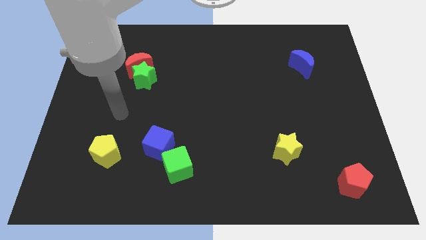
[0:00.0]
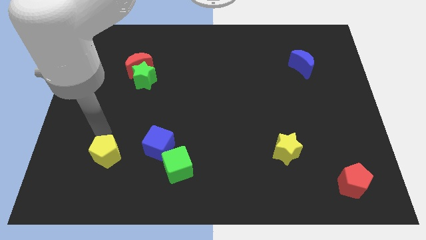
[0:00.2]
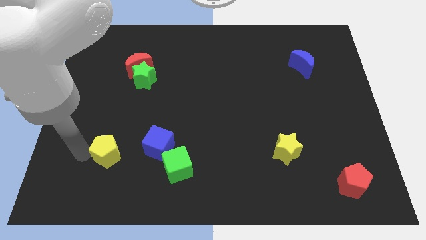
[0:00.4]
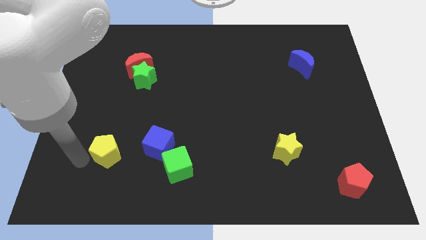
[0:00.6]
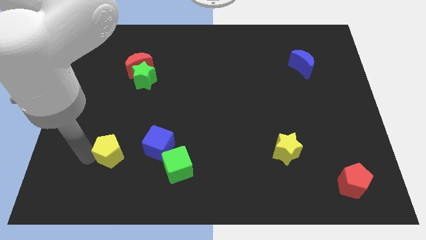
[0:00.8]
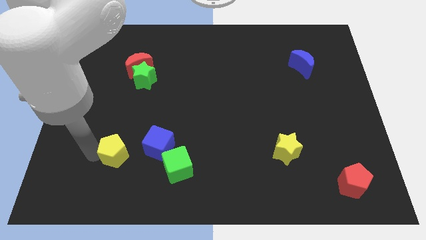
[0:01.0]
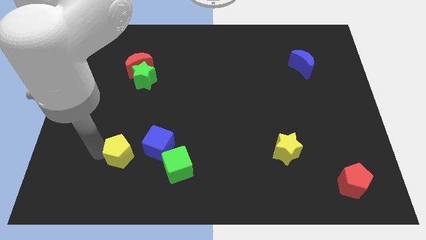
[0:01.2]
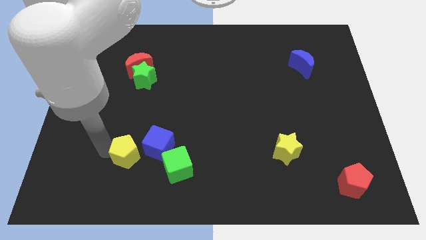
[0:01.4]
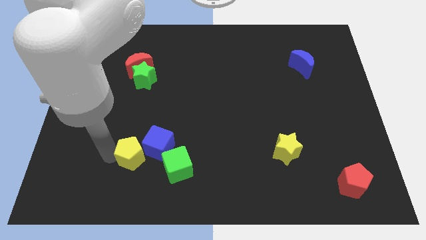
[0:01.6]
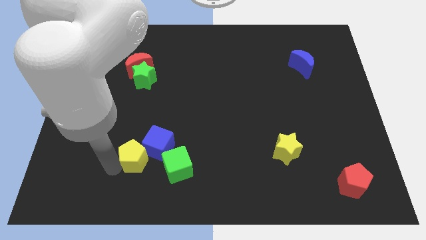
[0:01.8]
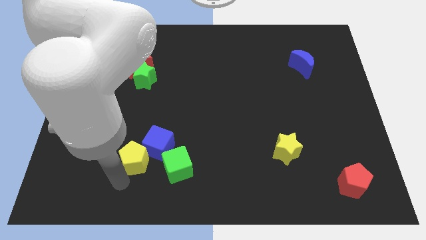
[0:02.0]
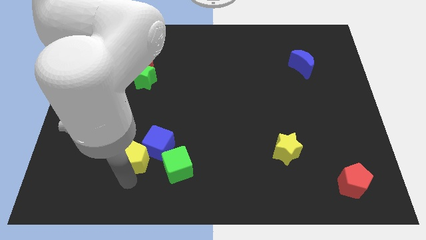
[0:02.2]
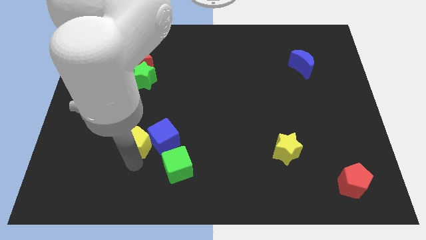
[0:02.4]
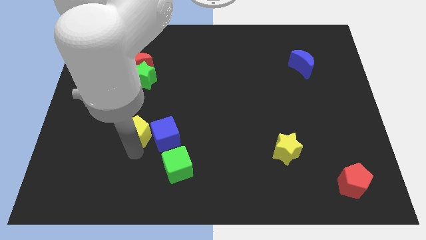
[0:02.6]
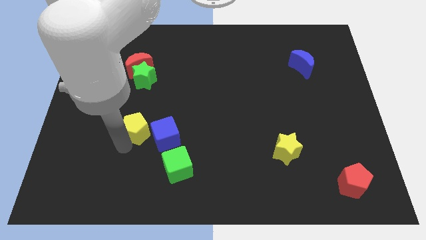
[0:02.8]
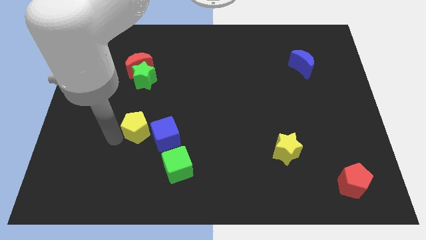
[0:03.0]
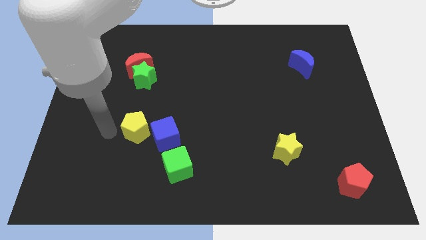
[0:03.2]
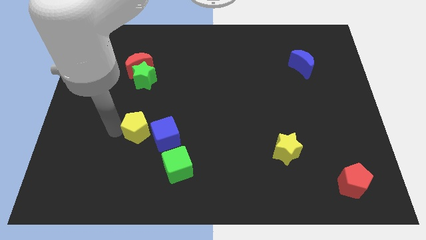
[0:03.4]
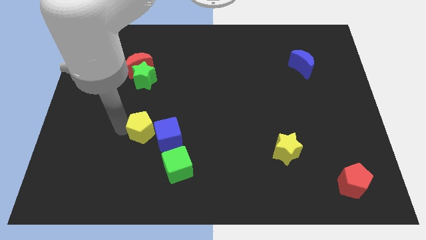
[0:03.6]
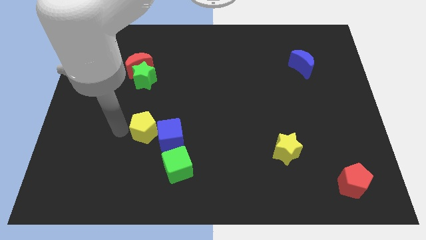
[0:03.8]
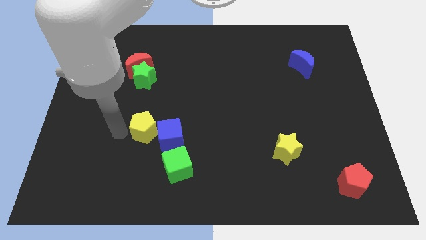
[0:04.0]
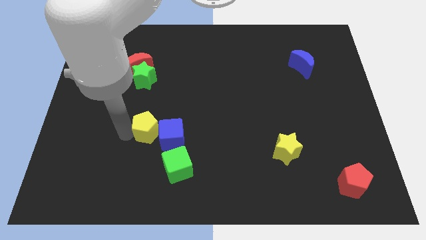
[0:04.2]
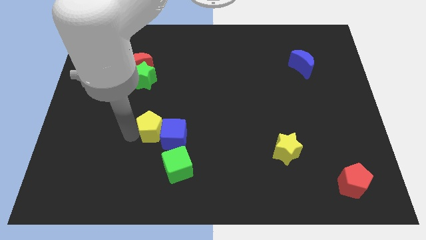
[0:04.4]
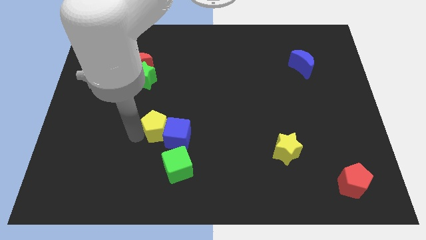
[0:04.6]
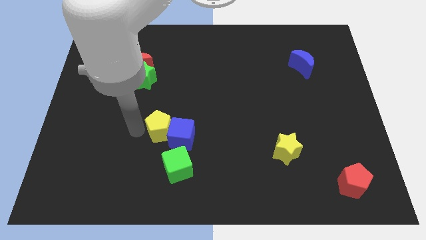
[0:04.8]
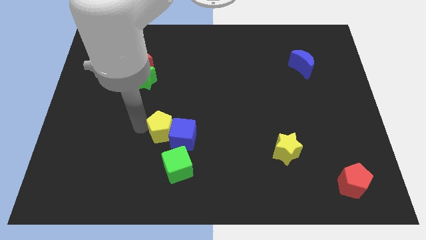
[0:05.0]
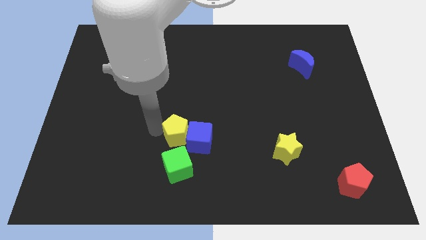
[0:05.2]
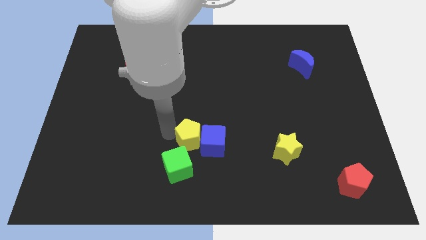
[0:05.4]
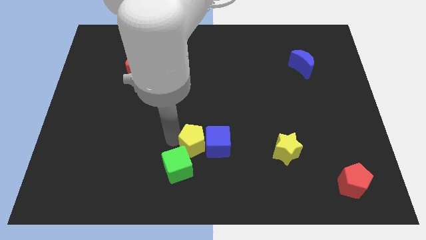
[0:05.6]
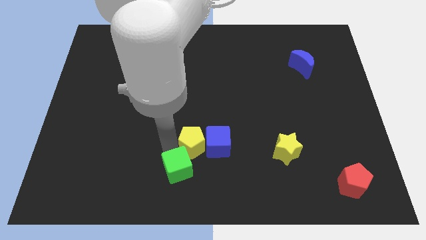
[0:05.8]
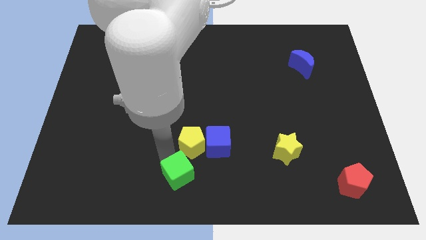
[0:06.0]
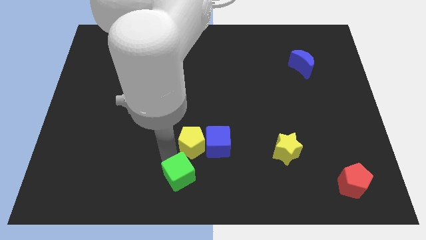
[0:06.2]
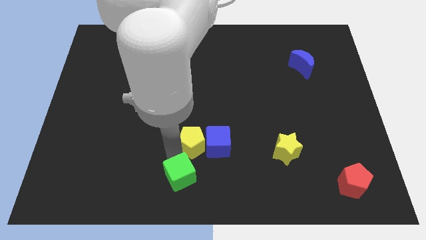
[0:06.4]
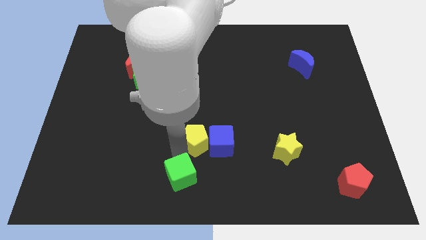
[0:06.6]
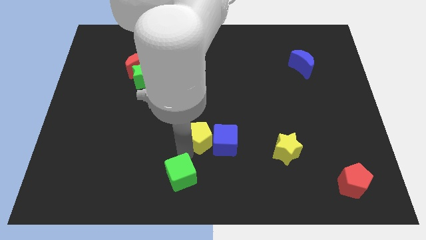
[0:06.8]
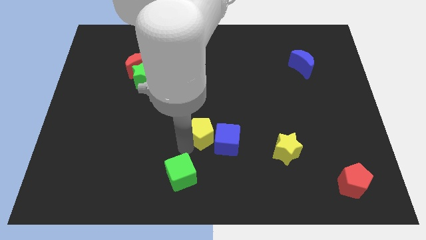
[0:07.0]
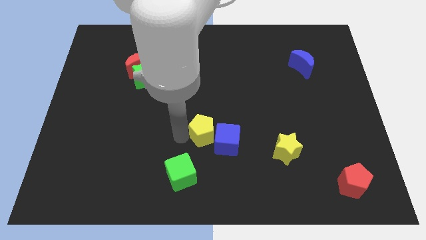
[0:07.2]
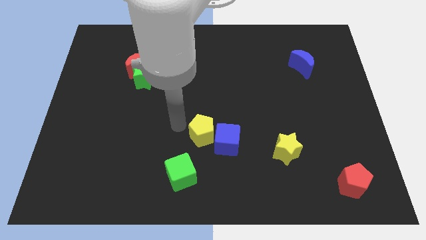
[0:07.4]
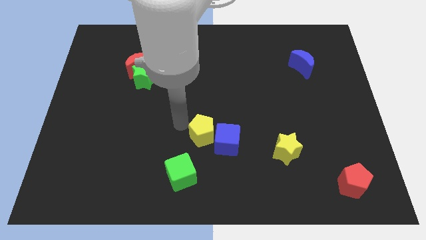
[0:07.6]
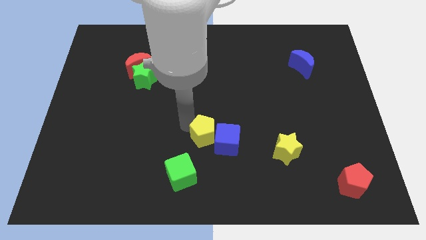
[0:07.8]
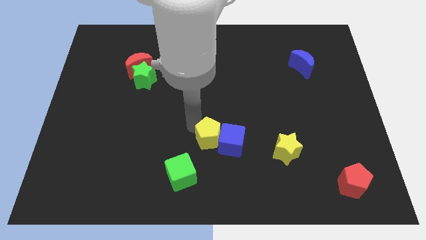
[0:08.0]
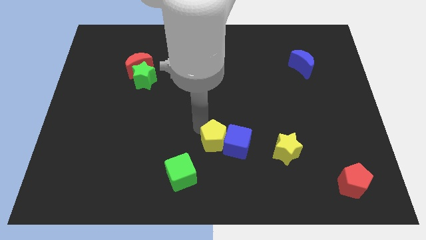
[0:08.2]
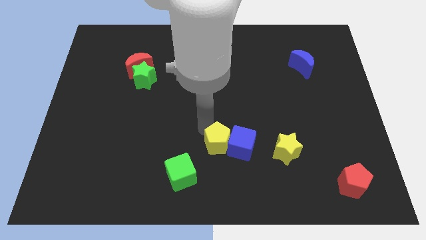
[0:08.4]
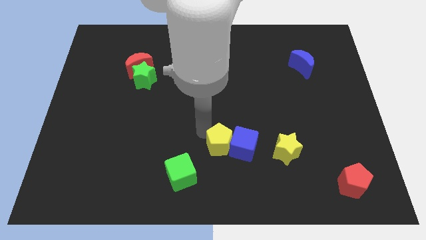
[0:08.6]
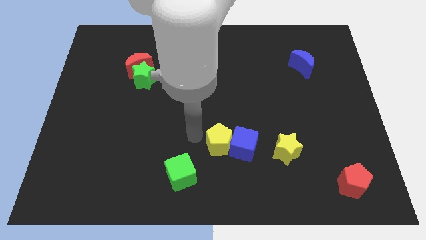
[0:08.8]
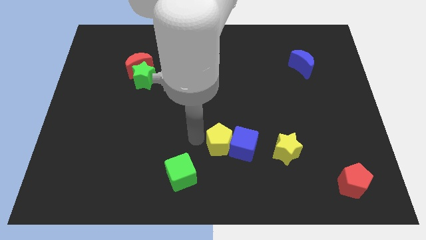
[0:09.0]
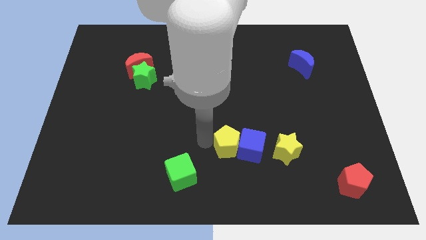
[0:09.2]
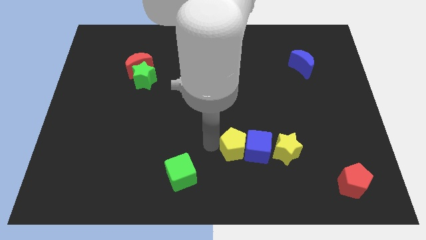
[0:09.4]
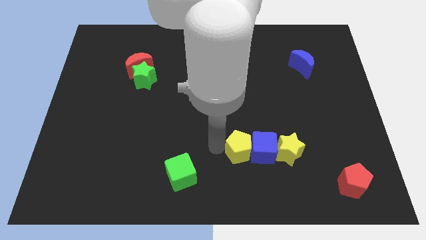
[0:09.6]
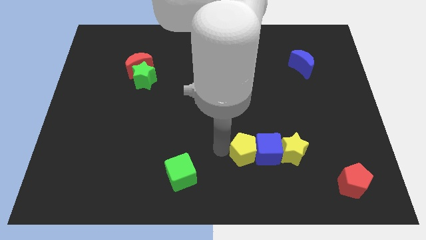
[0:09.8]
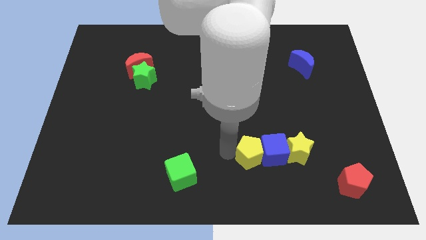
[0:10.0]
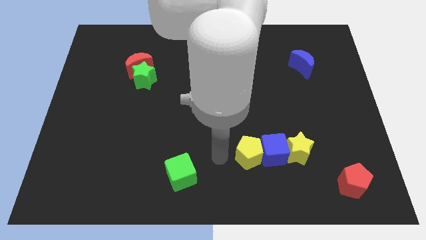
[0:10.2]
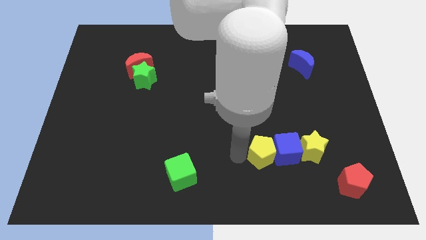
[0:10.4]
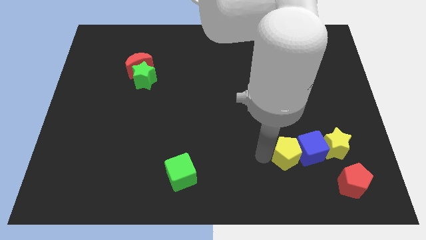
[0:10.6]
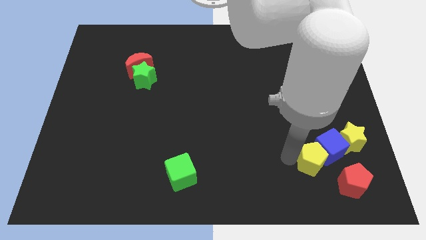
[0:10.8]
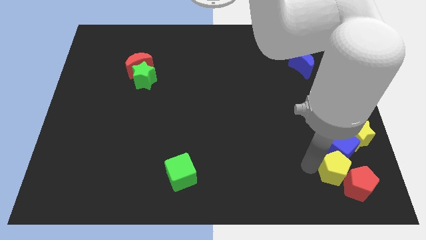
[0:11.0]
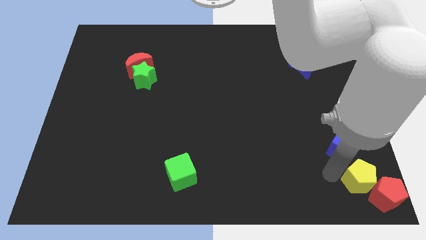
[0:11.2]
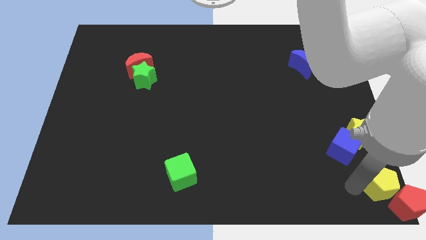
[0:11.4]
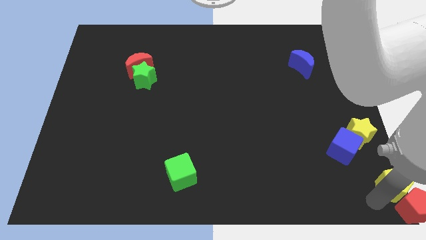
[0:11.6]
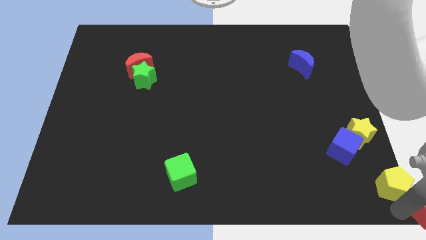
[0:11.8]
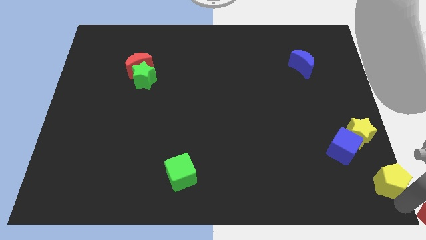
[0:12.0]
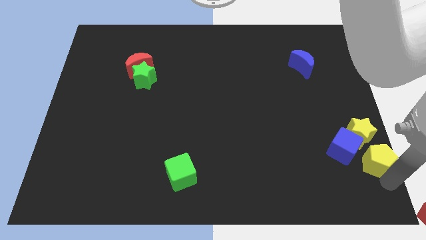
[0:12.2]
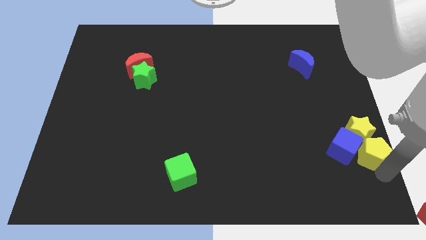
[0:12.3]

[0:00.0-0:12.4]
put the yellow pentagon next to the yellow star
